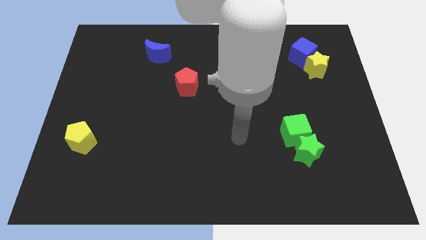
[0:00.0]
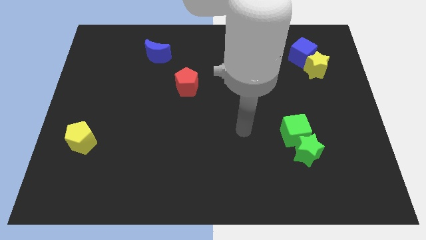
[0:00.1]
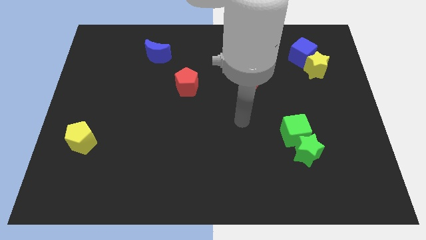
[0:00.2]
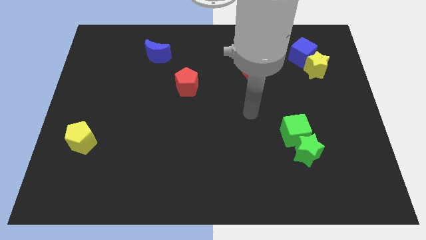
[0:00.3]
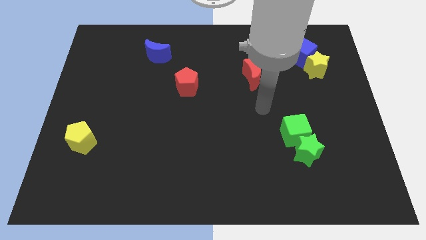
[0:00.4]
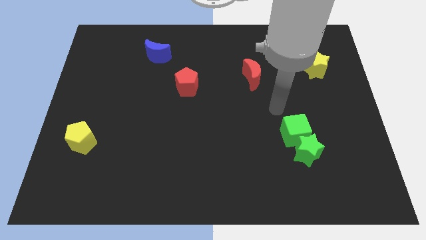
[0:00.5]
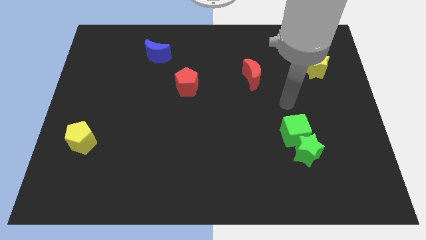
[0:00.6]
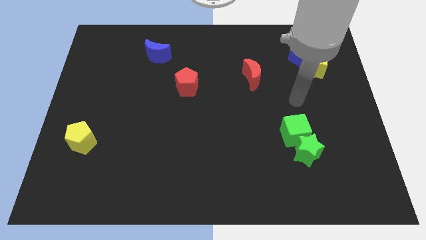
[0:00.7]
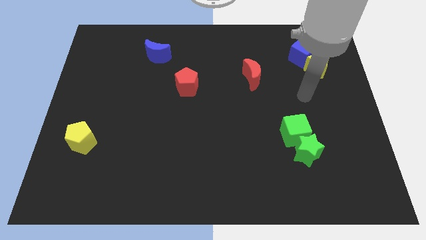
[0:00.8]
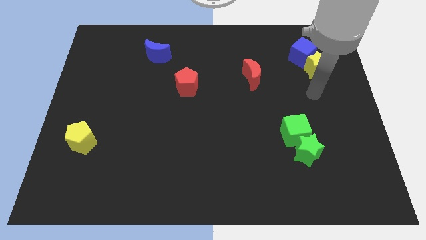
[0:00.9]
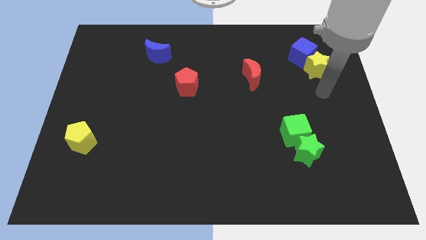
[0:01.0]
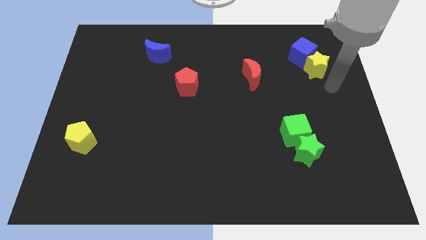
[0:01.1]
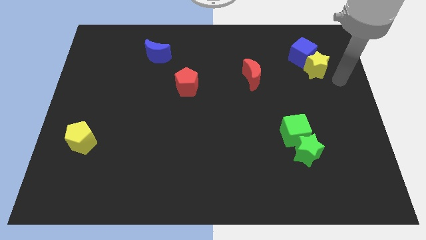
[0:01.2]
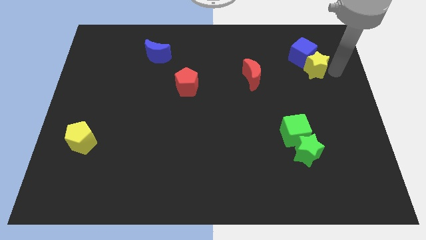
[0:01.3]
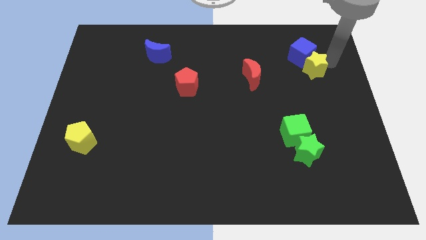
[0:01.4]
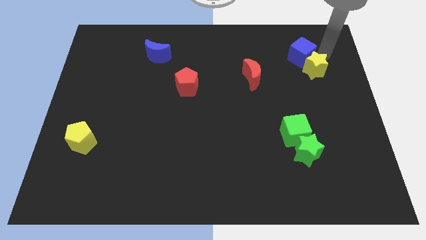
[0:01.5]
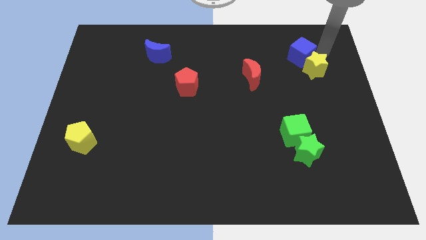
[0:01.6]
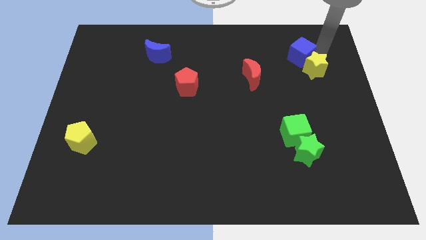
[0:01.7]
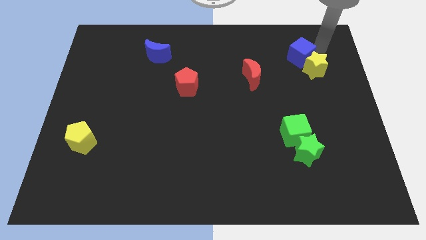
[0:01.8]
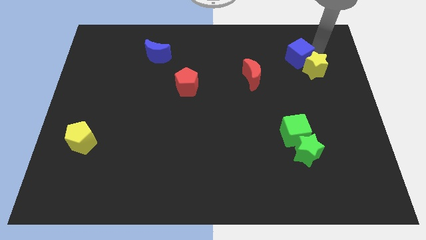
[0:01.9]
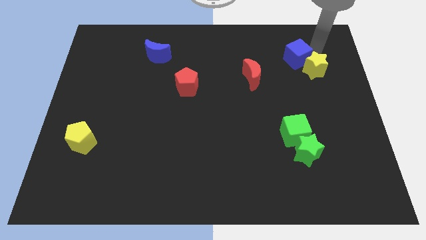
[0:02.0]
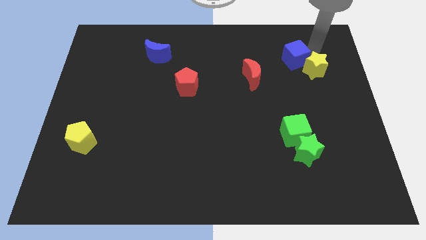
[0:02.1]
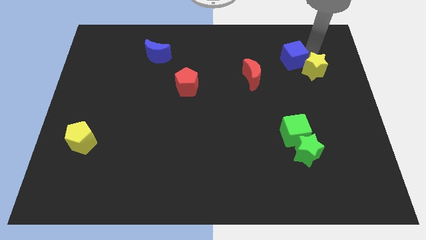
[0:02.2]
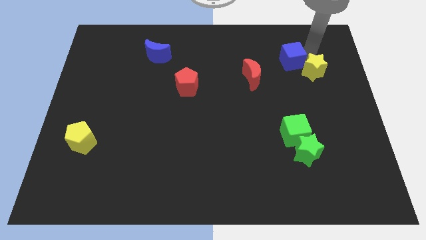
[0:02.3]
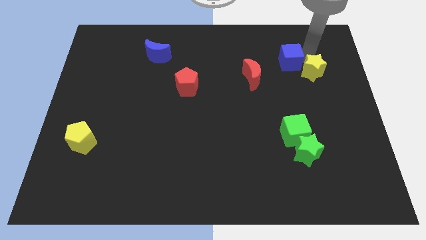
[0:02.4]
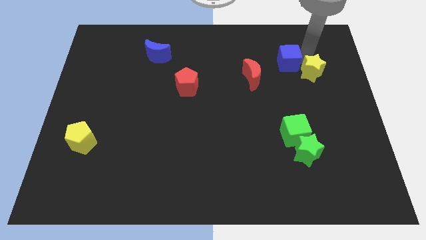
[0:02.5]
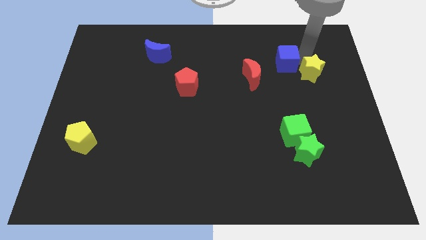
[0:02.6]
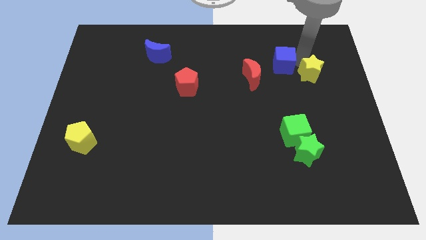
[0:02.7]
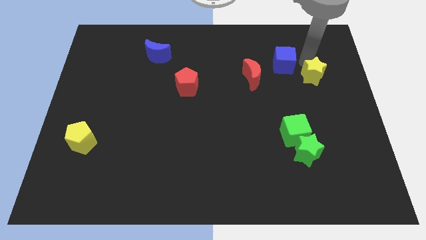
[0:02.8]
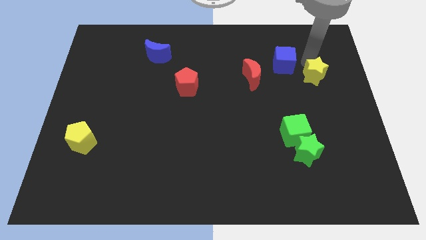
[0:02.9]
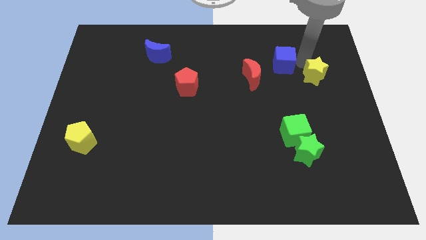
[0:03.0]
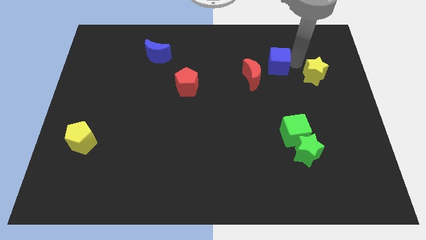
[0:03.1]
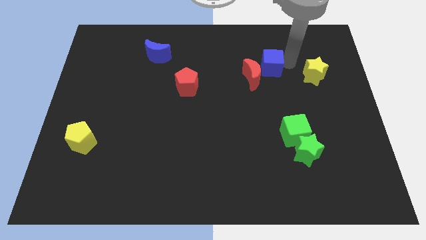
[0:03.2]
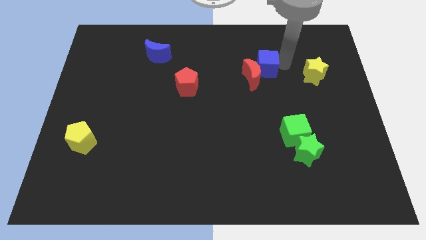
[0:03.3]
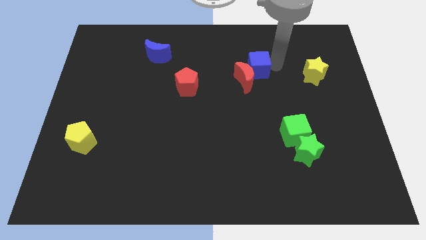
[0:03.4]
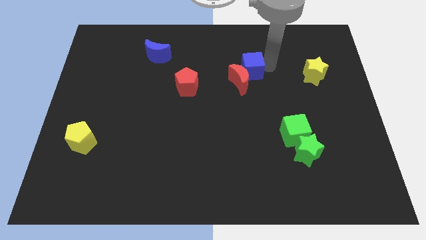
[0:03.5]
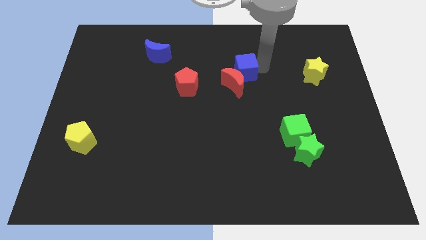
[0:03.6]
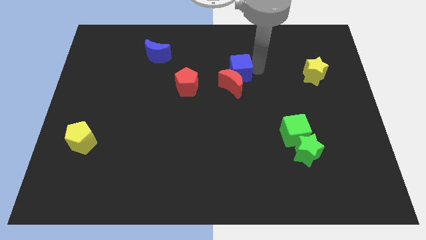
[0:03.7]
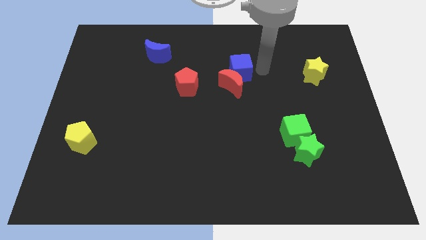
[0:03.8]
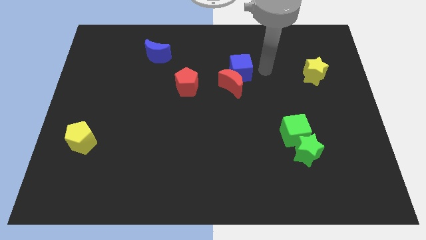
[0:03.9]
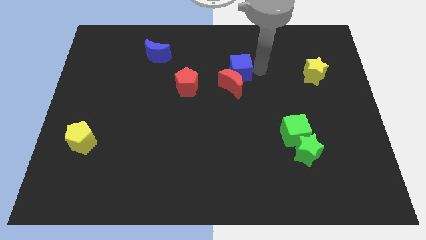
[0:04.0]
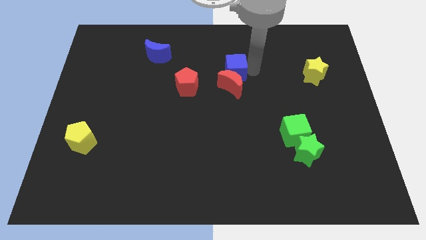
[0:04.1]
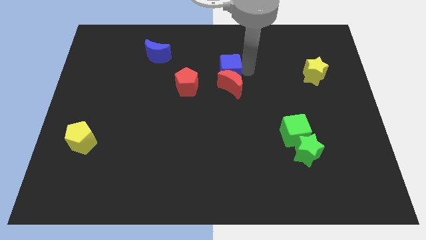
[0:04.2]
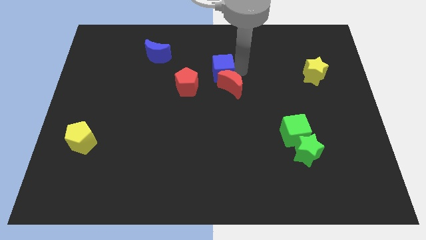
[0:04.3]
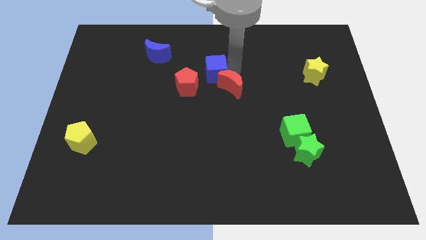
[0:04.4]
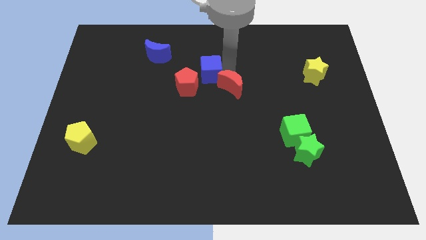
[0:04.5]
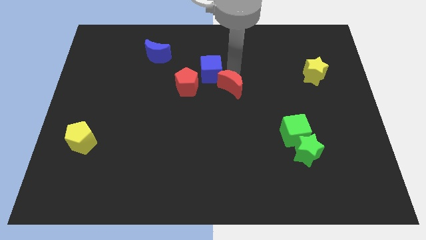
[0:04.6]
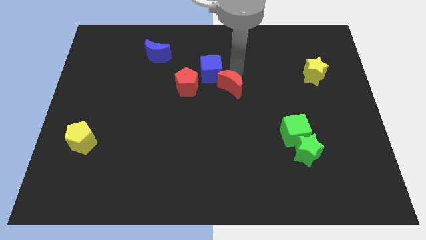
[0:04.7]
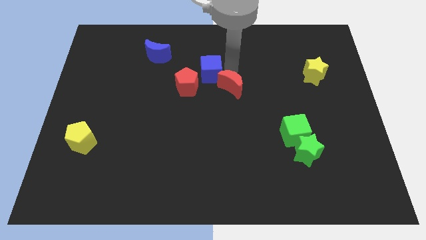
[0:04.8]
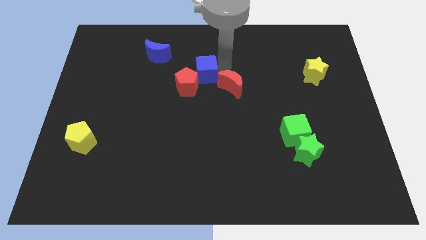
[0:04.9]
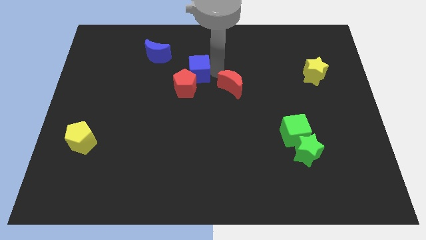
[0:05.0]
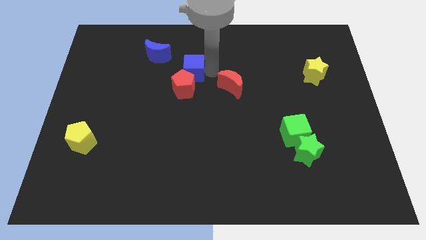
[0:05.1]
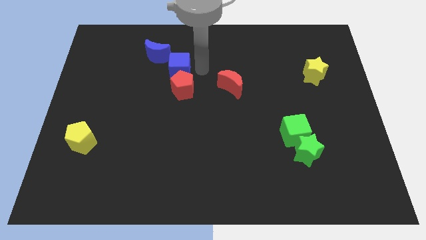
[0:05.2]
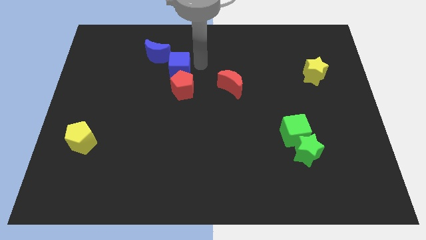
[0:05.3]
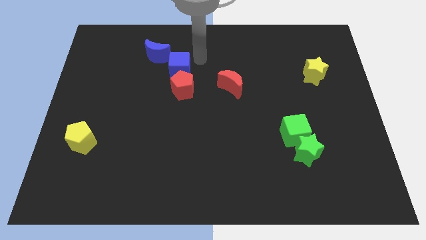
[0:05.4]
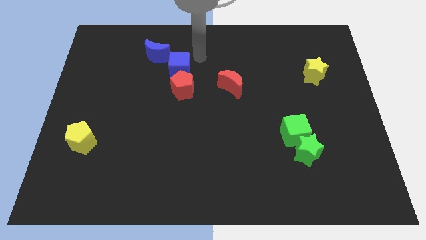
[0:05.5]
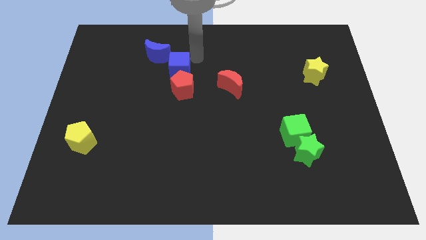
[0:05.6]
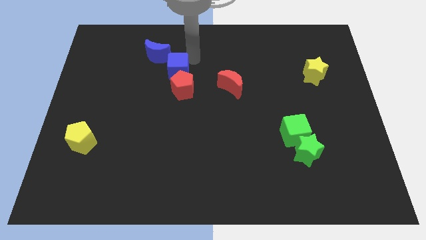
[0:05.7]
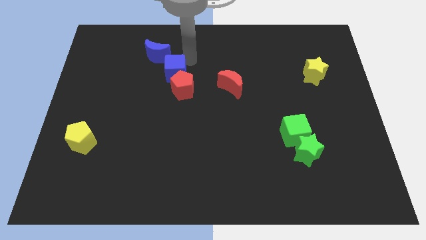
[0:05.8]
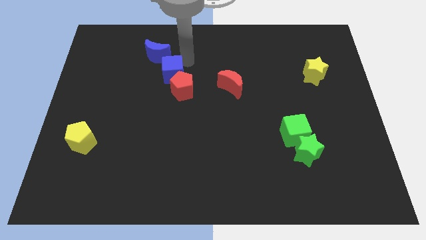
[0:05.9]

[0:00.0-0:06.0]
move the blue cube to the bottom side of the blue moon

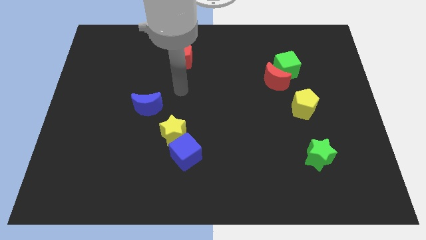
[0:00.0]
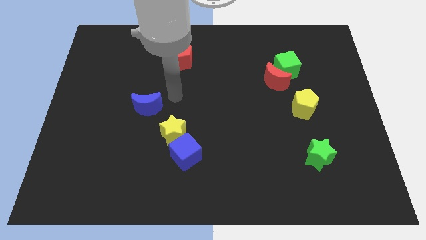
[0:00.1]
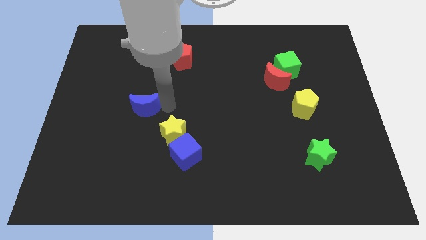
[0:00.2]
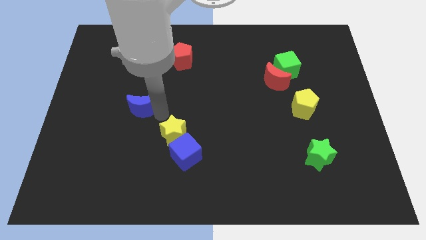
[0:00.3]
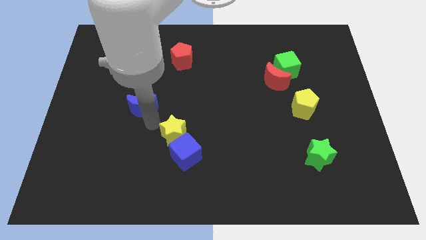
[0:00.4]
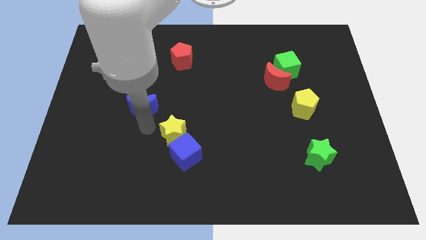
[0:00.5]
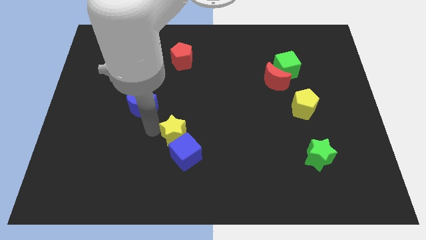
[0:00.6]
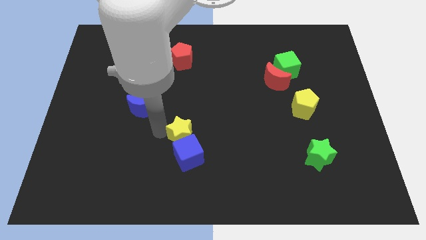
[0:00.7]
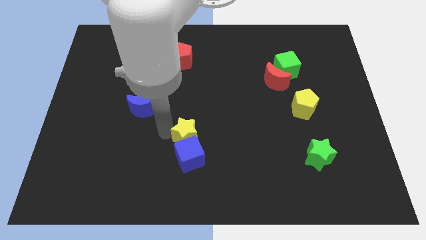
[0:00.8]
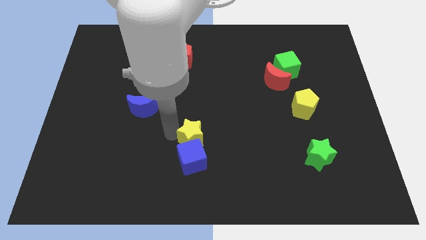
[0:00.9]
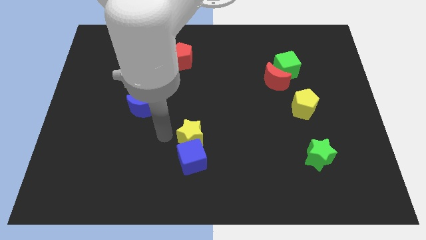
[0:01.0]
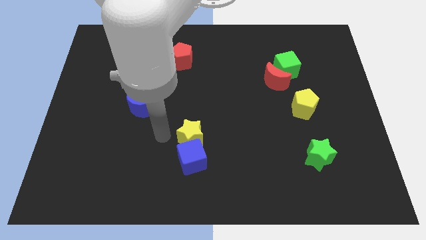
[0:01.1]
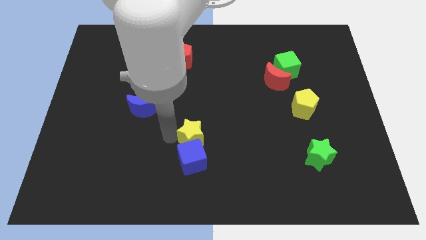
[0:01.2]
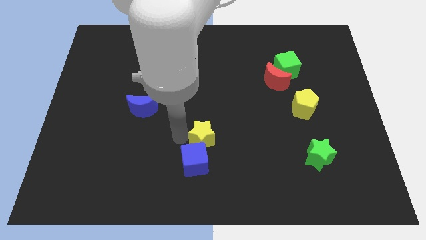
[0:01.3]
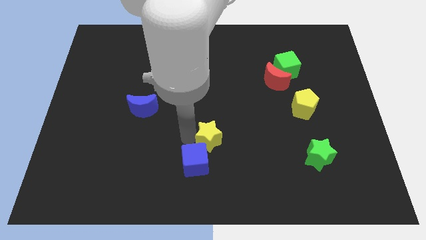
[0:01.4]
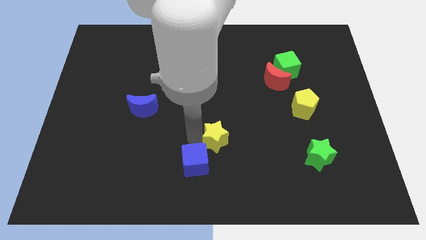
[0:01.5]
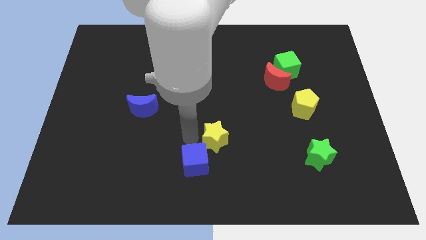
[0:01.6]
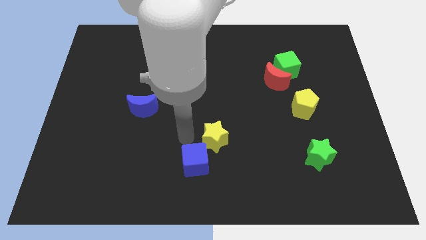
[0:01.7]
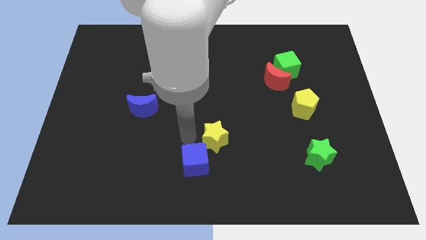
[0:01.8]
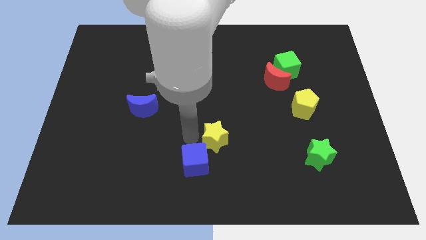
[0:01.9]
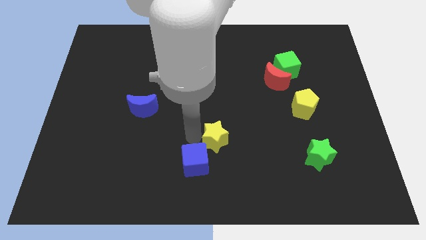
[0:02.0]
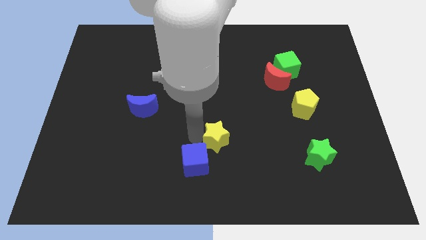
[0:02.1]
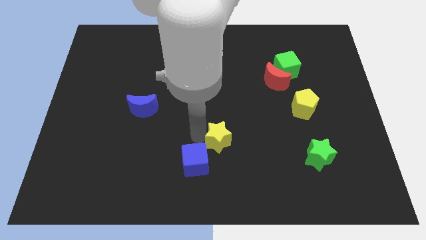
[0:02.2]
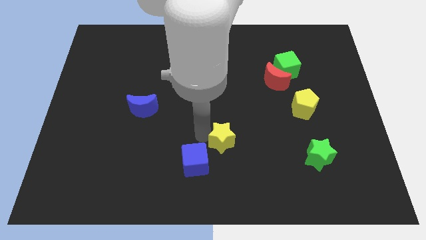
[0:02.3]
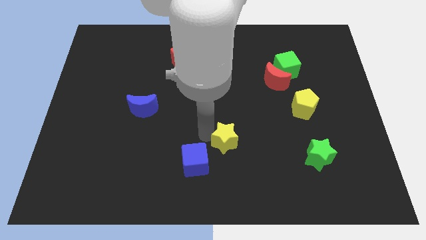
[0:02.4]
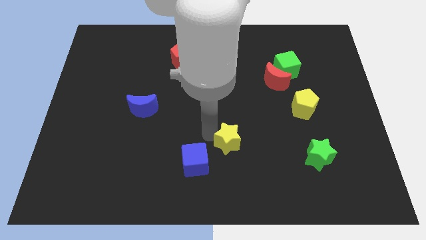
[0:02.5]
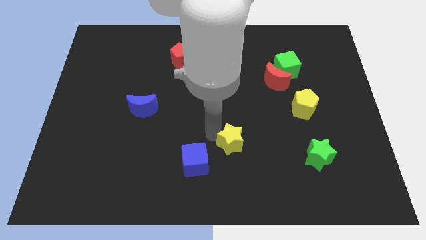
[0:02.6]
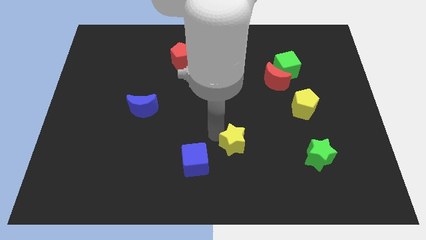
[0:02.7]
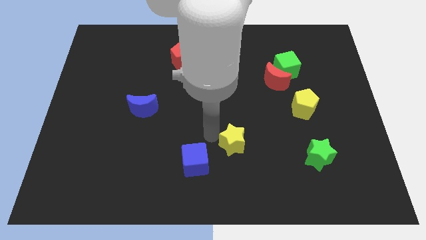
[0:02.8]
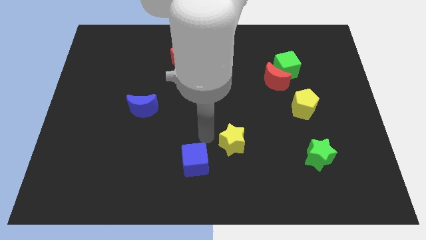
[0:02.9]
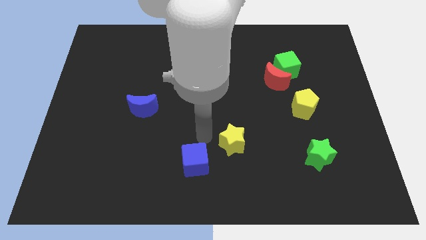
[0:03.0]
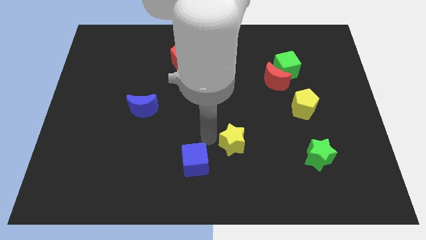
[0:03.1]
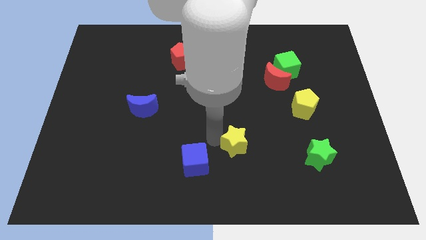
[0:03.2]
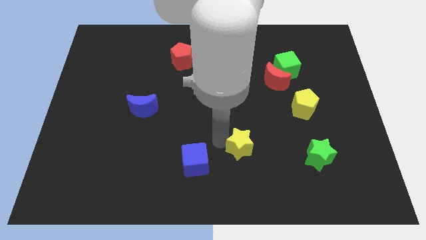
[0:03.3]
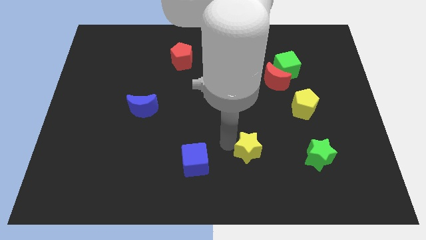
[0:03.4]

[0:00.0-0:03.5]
put the yellow star just left of the green star
